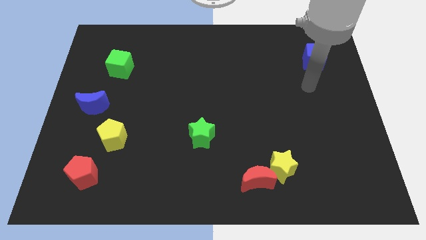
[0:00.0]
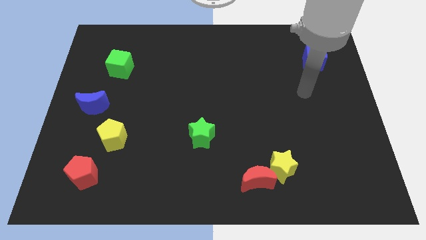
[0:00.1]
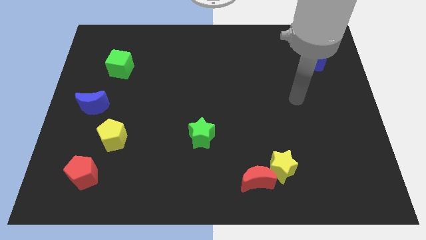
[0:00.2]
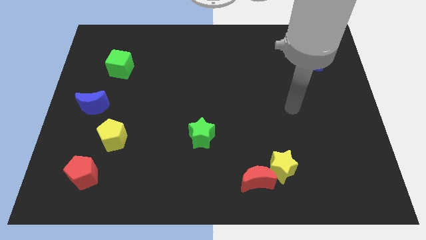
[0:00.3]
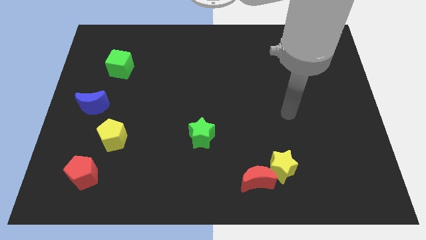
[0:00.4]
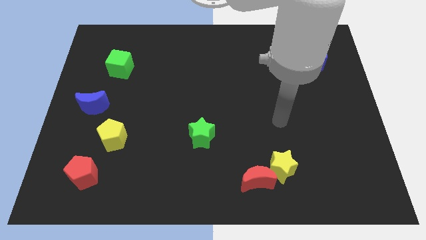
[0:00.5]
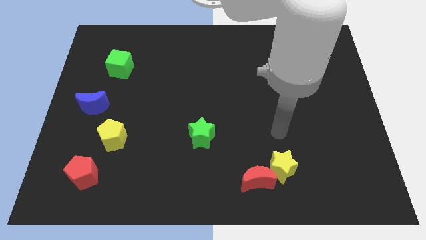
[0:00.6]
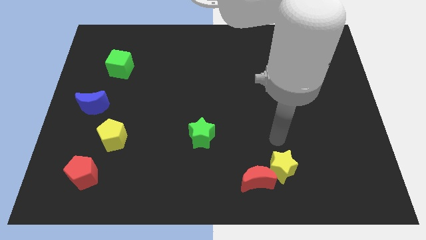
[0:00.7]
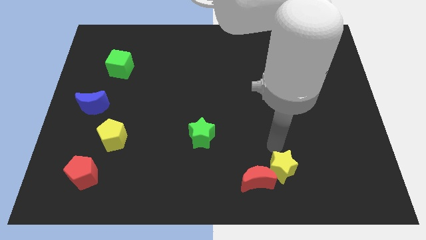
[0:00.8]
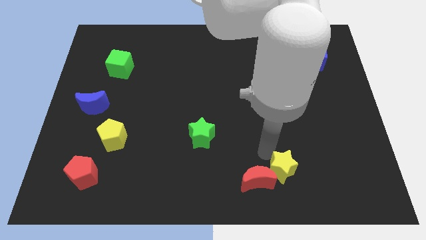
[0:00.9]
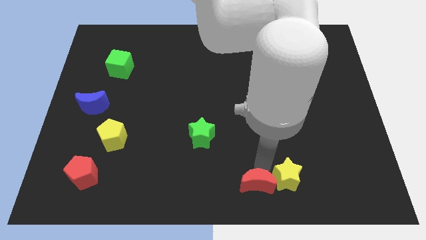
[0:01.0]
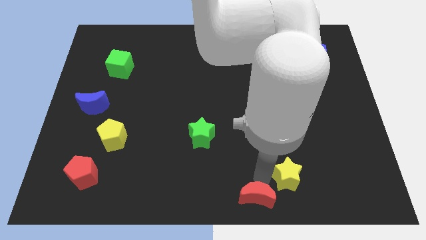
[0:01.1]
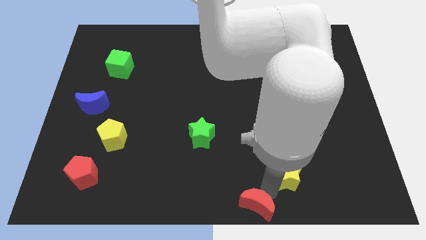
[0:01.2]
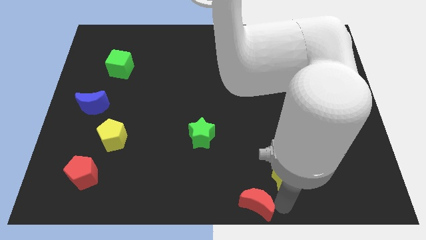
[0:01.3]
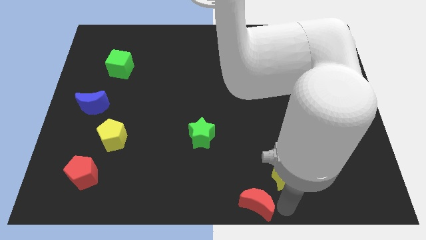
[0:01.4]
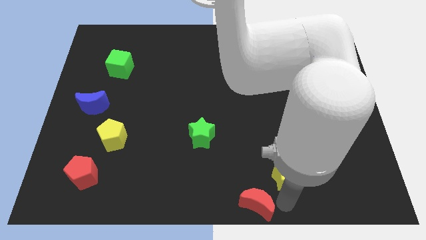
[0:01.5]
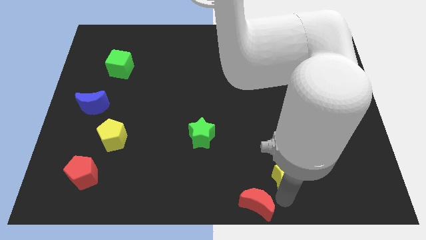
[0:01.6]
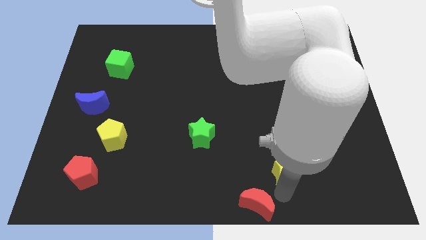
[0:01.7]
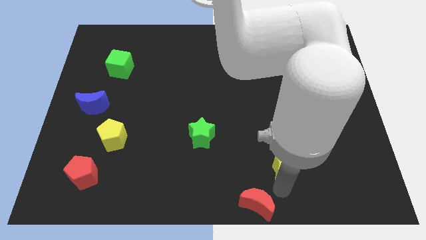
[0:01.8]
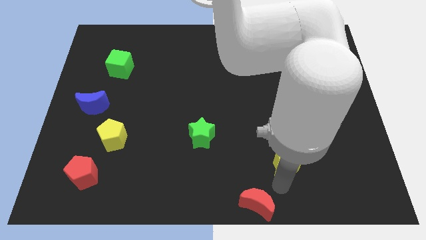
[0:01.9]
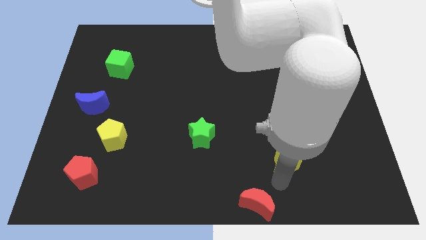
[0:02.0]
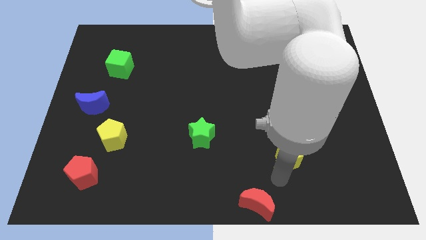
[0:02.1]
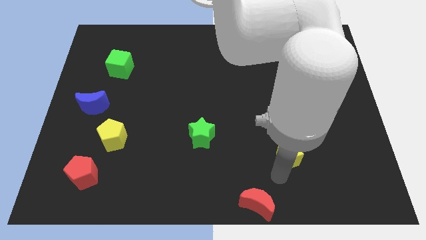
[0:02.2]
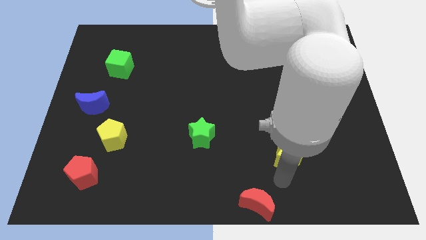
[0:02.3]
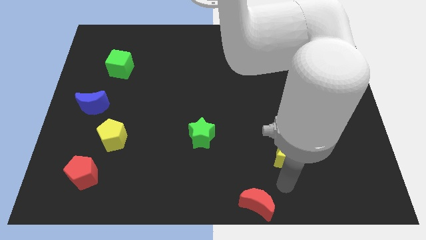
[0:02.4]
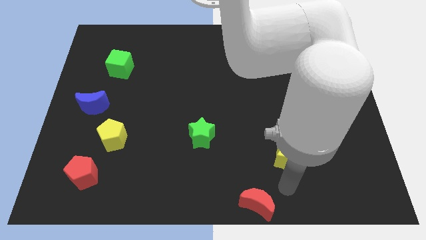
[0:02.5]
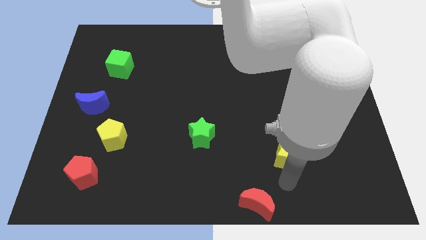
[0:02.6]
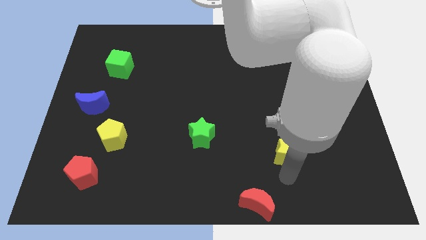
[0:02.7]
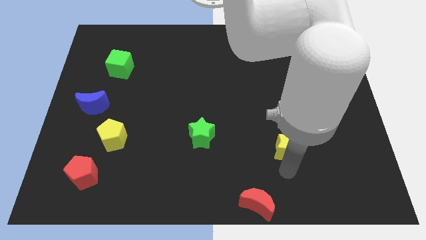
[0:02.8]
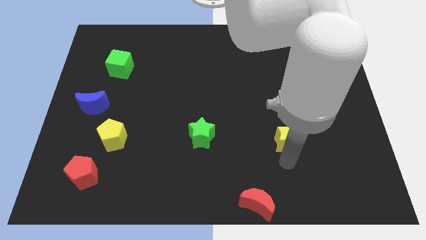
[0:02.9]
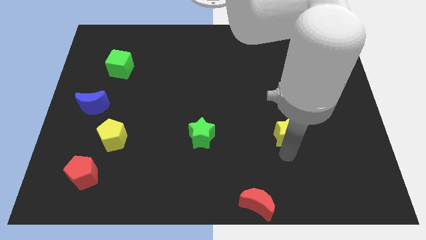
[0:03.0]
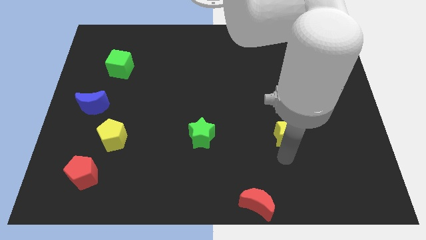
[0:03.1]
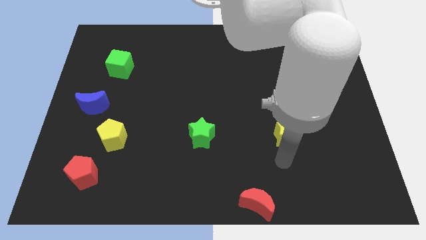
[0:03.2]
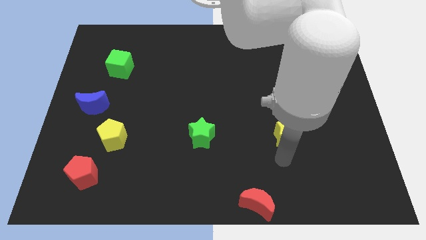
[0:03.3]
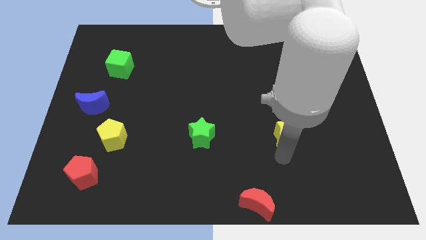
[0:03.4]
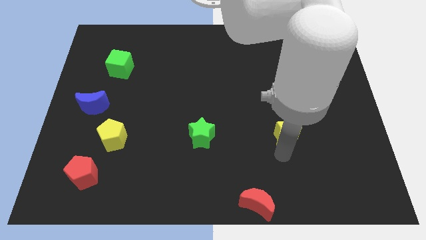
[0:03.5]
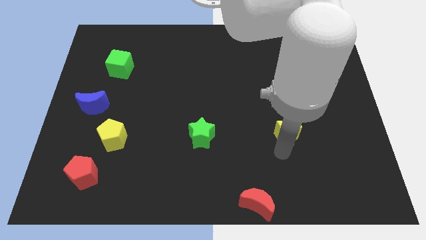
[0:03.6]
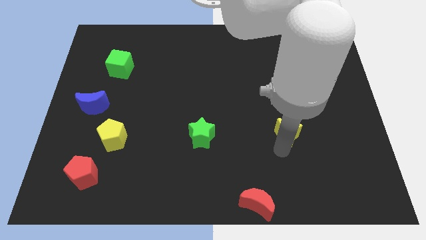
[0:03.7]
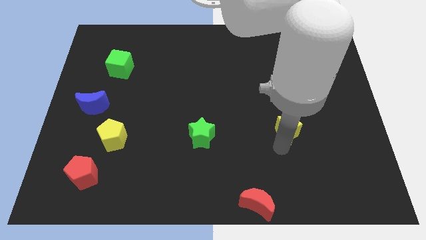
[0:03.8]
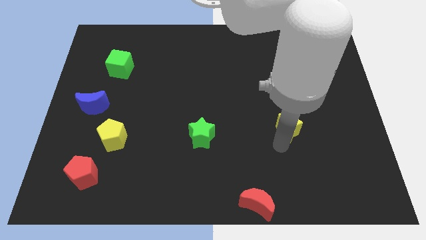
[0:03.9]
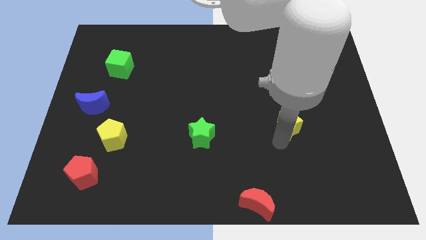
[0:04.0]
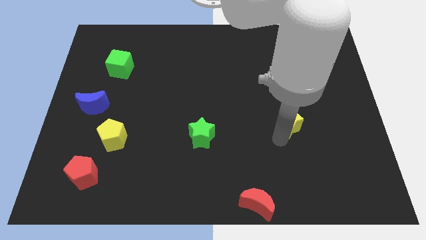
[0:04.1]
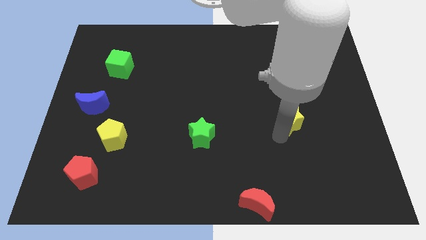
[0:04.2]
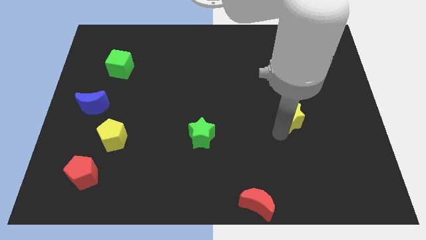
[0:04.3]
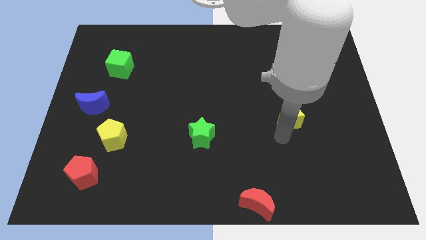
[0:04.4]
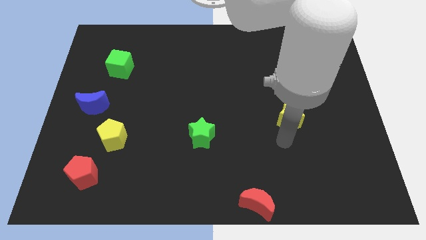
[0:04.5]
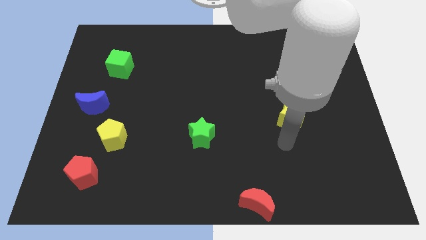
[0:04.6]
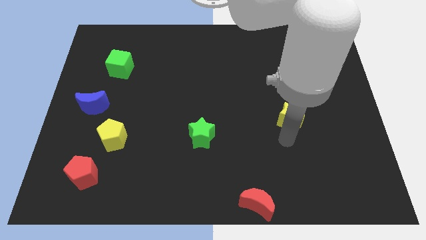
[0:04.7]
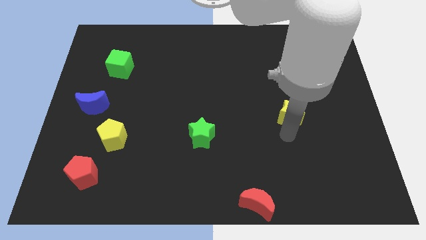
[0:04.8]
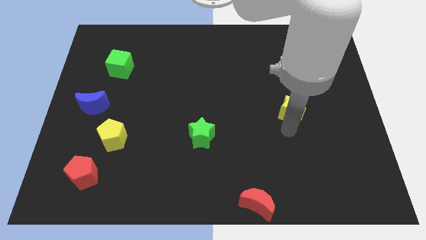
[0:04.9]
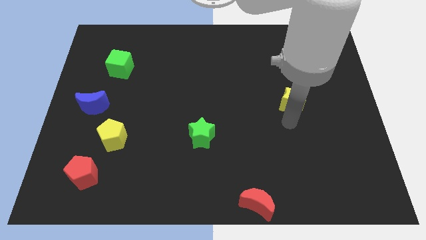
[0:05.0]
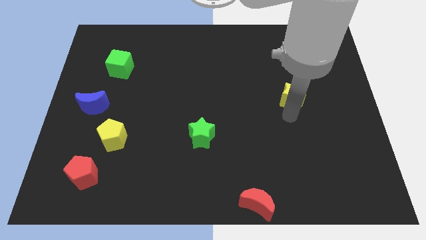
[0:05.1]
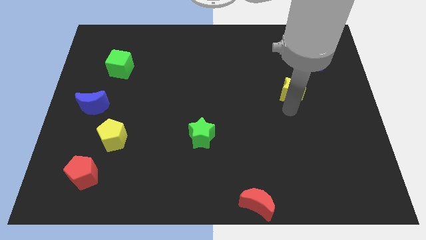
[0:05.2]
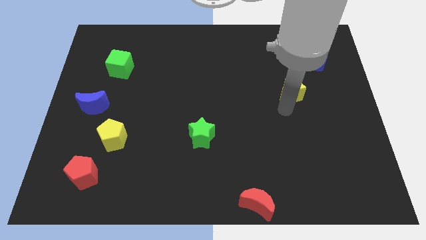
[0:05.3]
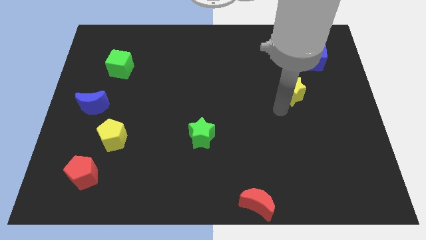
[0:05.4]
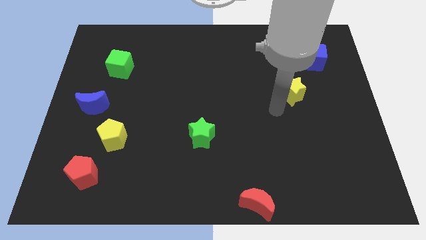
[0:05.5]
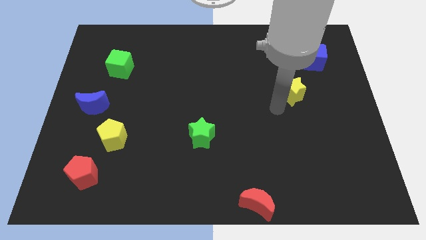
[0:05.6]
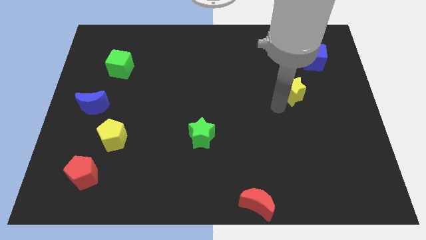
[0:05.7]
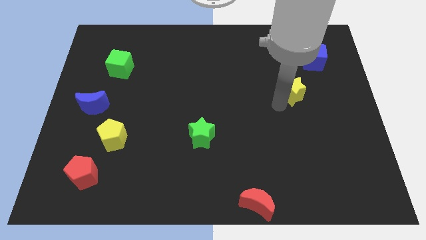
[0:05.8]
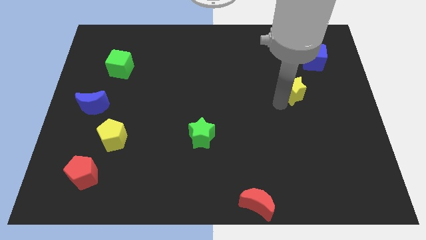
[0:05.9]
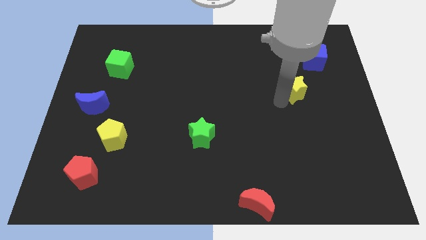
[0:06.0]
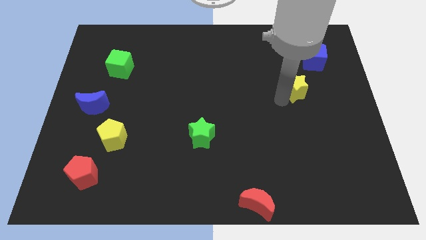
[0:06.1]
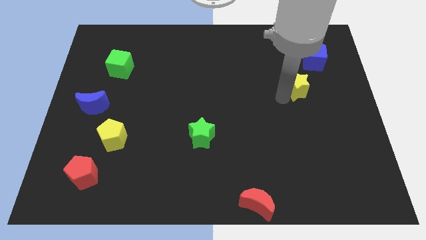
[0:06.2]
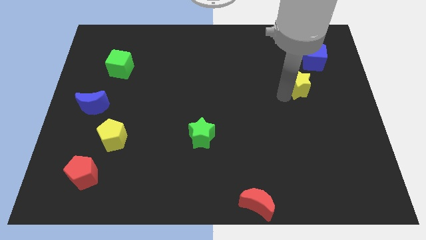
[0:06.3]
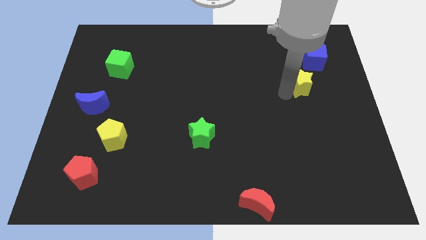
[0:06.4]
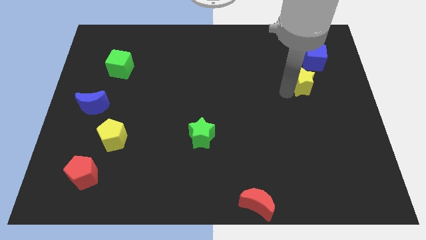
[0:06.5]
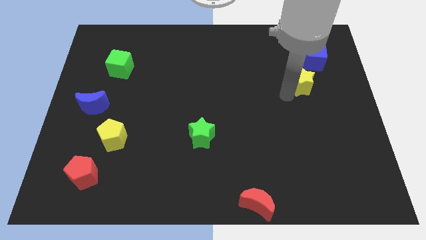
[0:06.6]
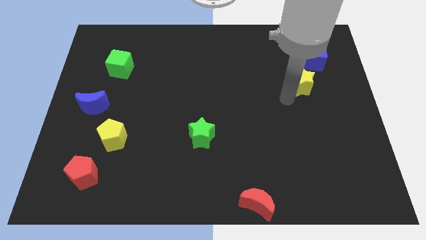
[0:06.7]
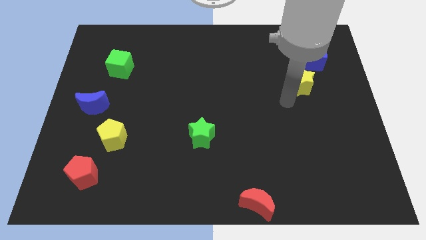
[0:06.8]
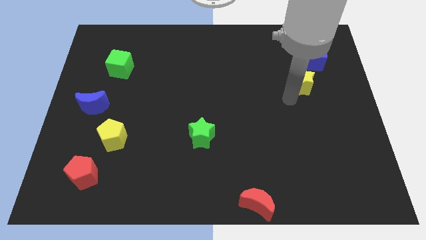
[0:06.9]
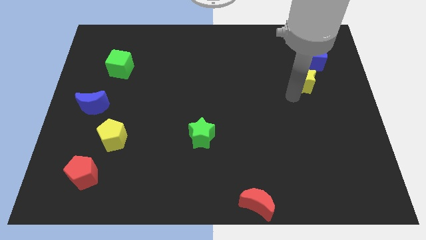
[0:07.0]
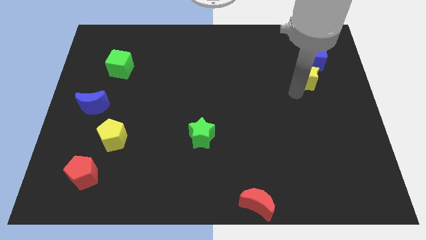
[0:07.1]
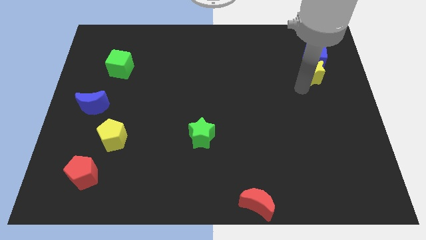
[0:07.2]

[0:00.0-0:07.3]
slide the yellow star next to the blue cube
